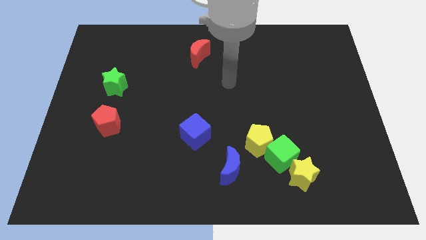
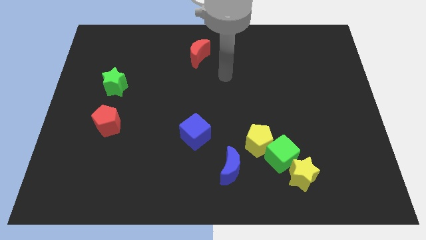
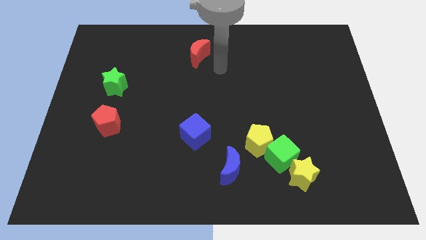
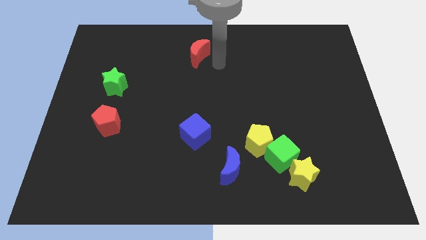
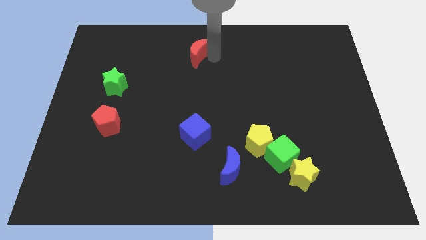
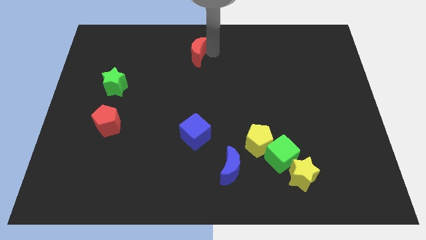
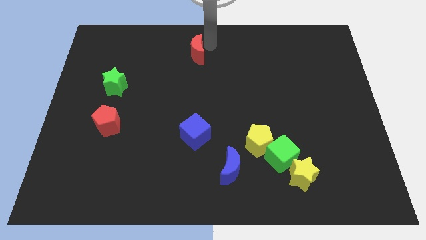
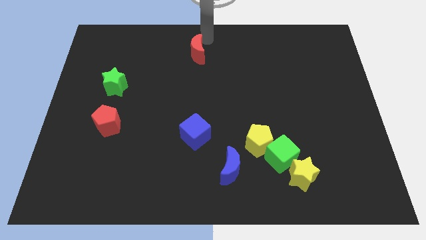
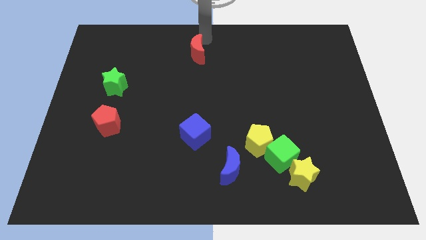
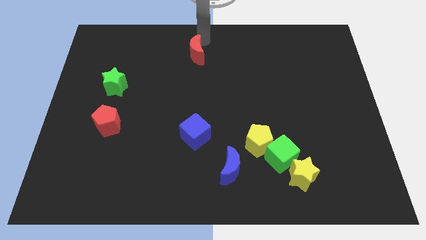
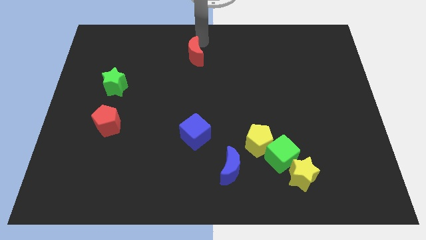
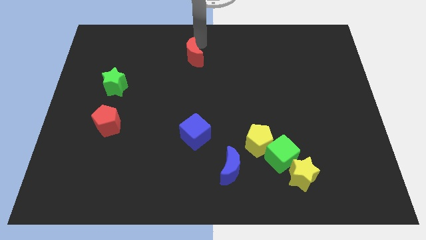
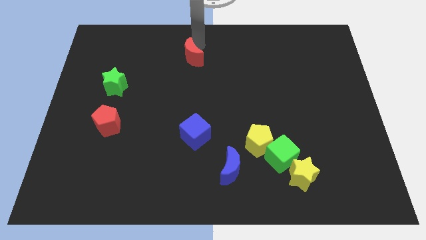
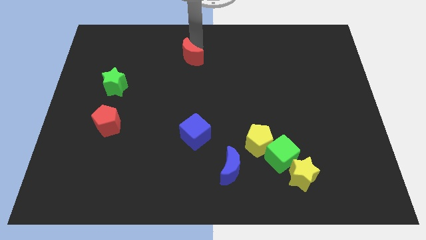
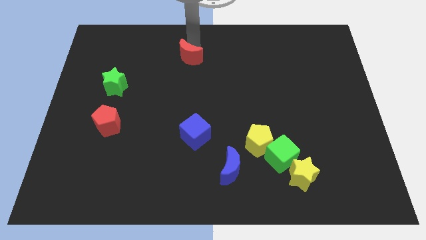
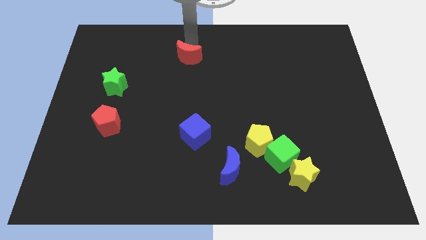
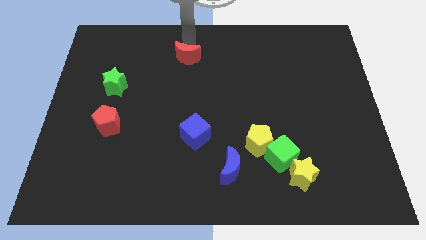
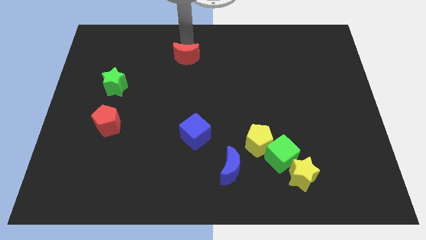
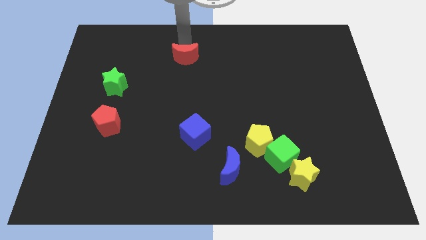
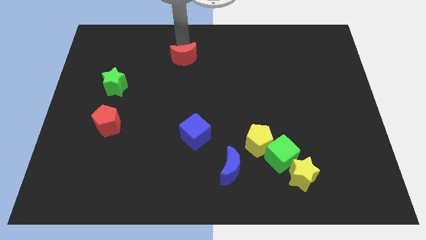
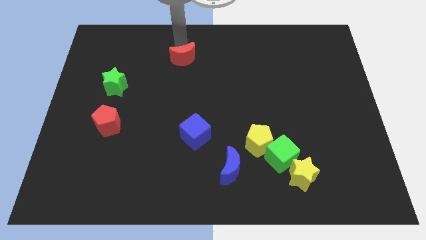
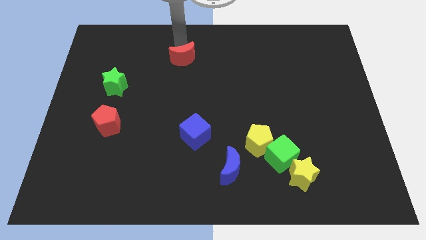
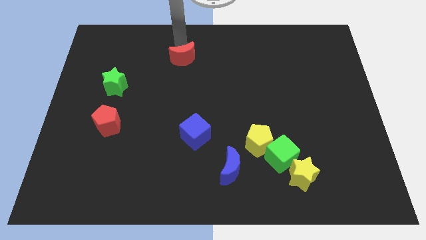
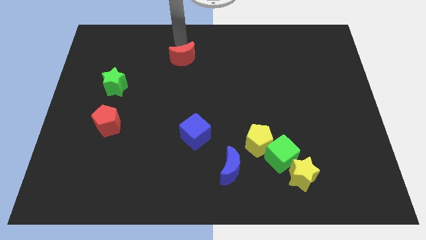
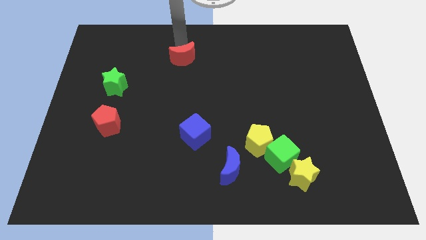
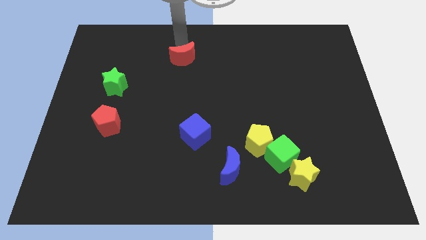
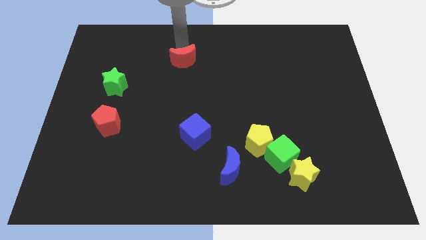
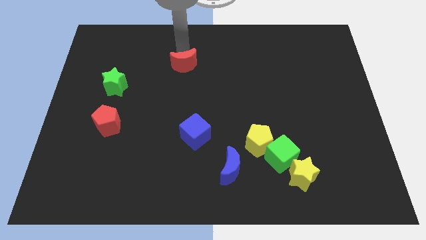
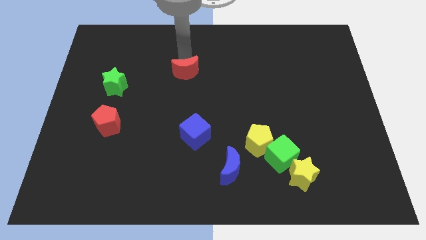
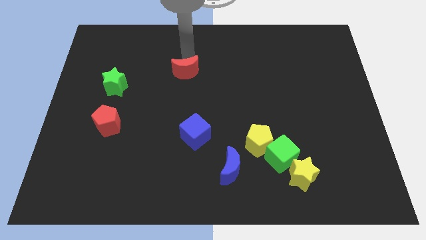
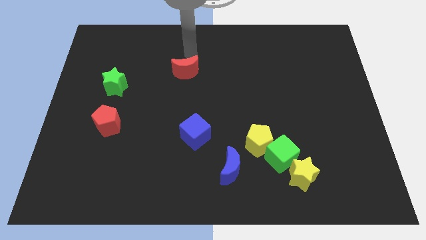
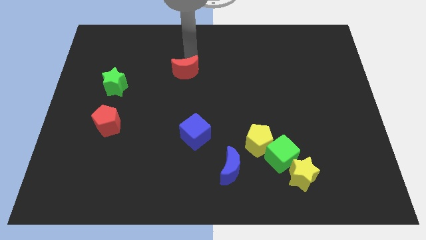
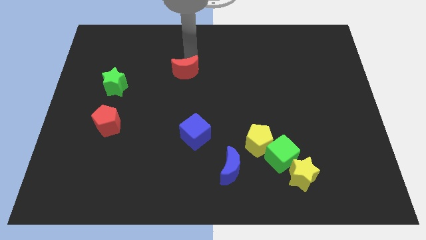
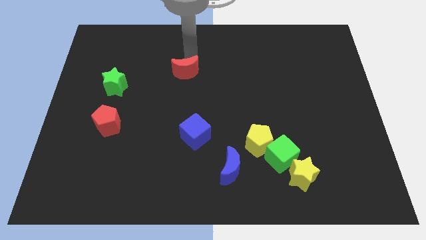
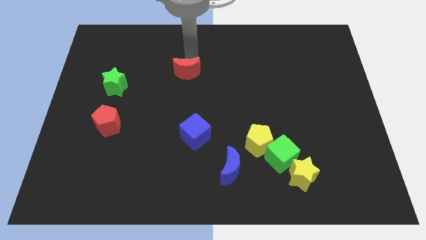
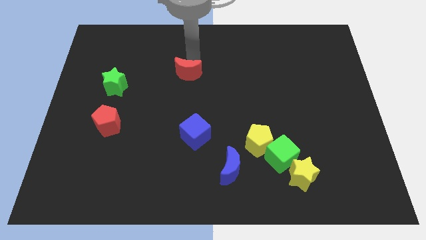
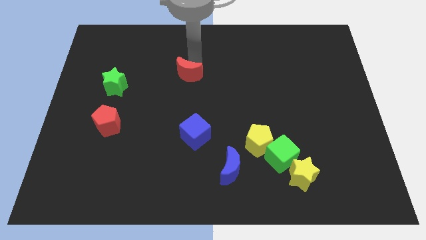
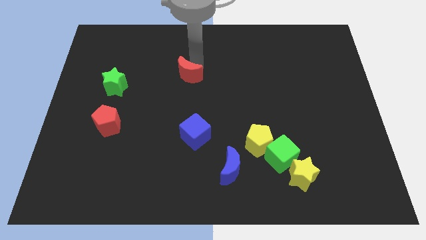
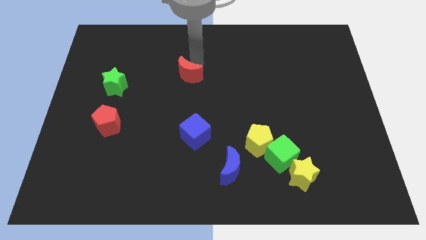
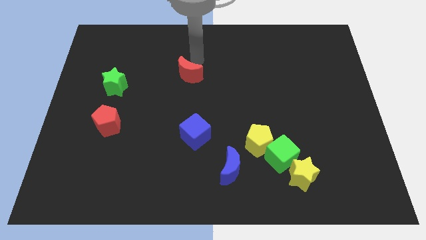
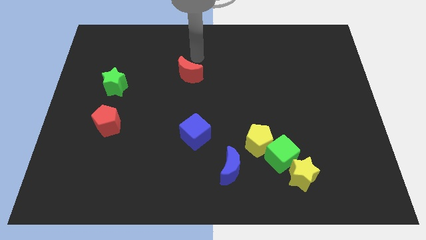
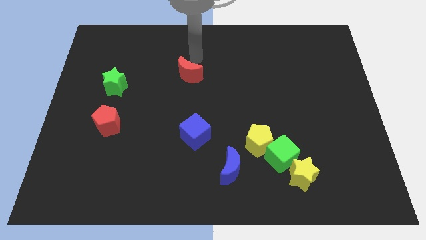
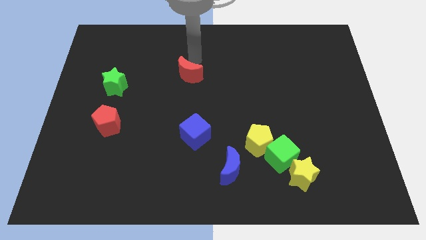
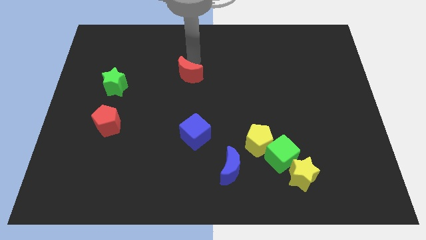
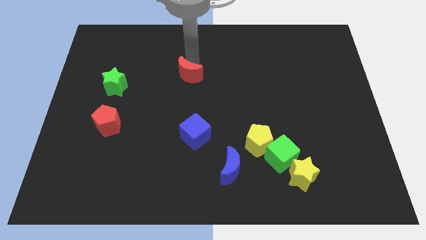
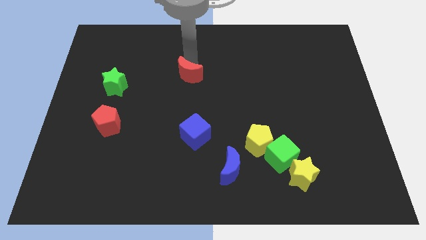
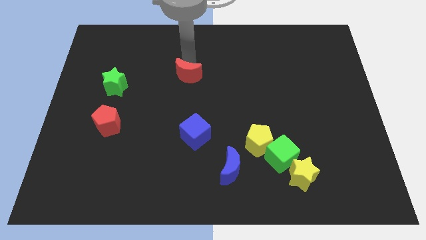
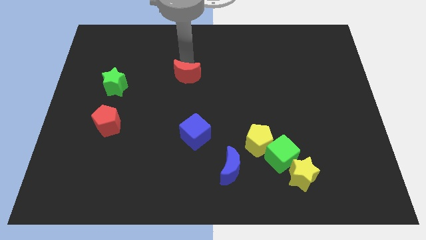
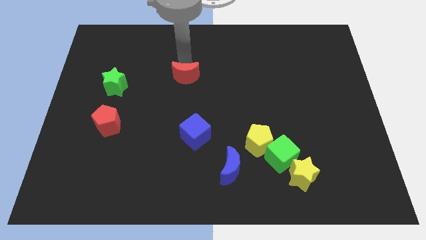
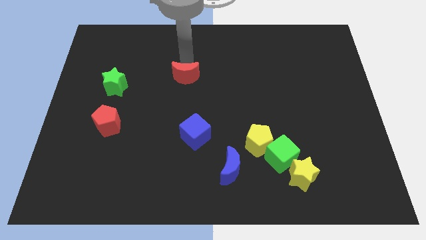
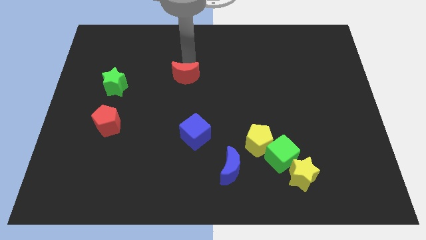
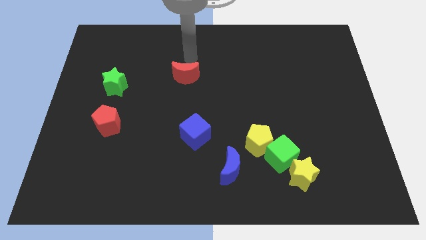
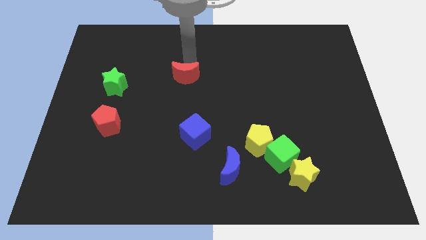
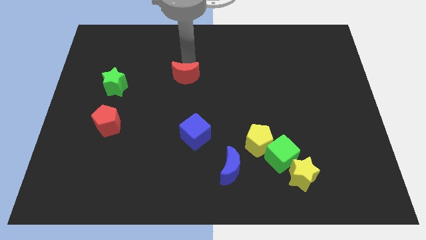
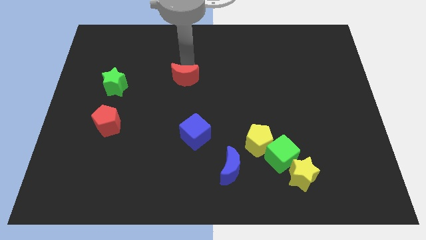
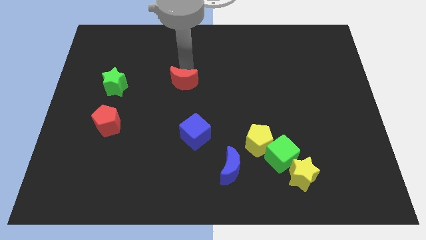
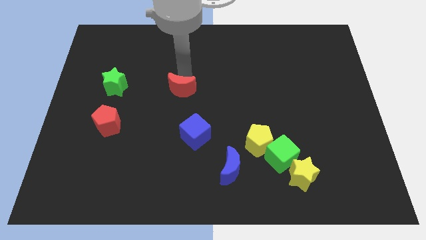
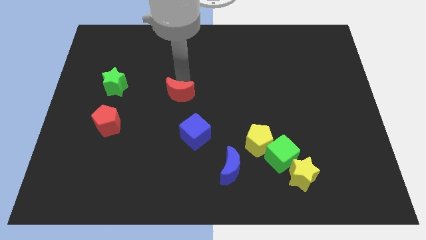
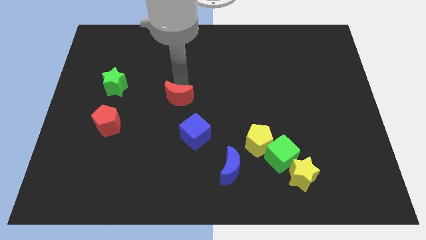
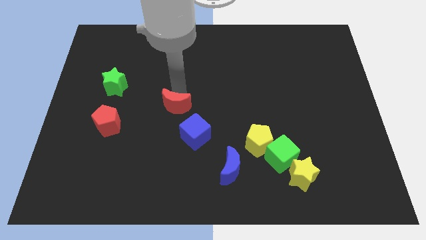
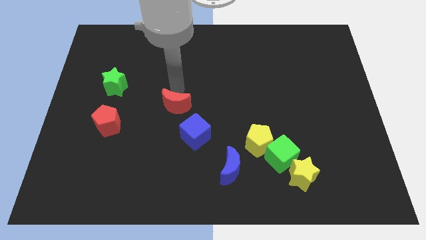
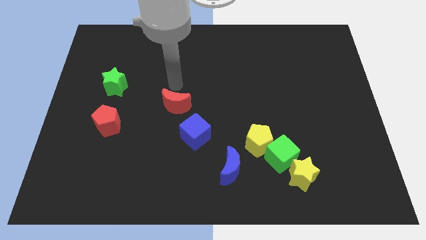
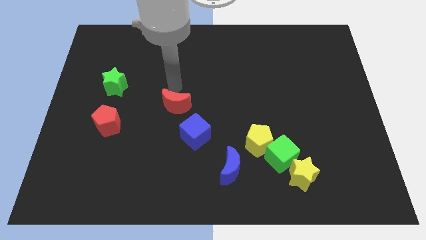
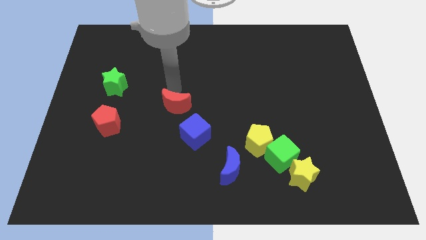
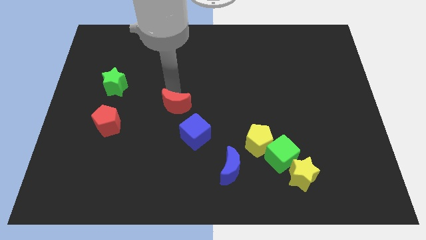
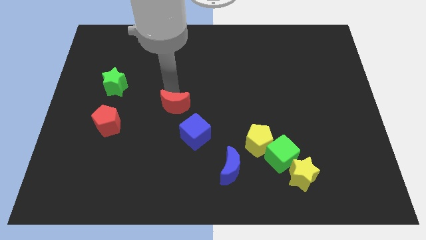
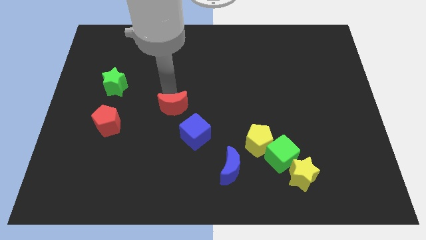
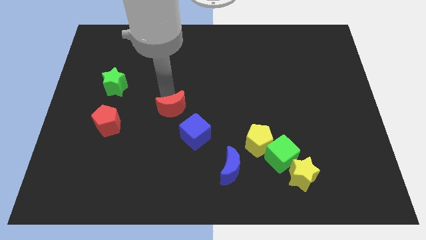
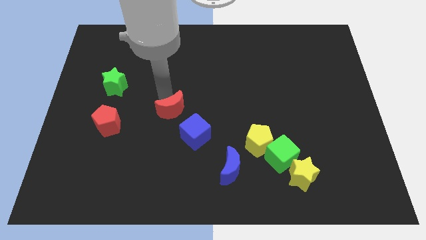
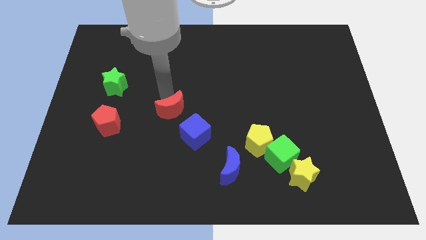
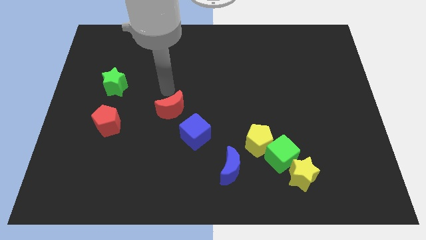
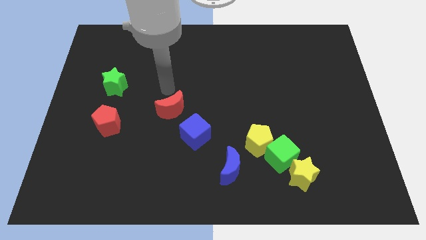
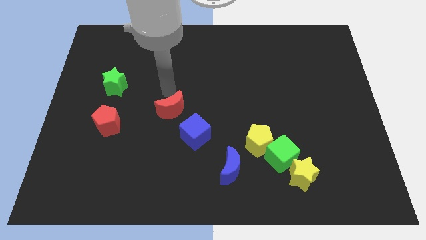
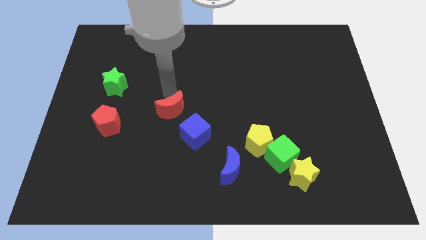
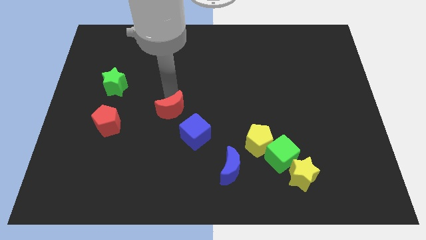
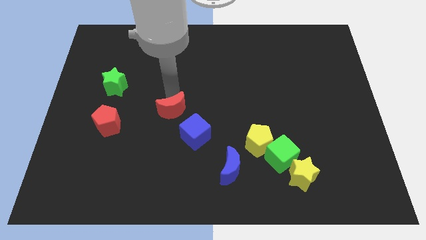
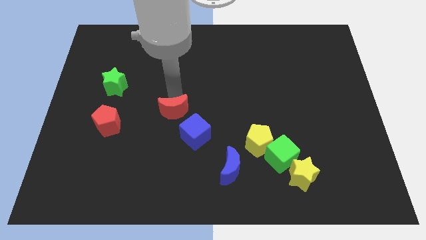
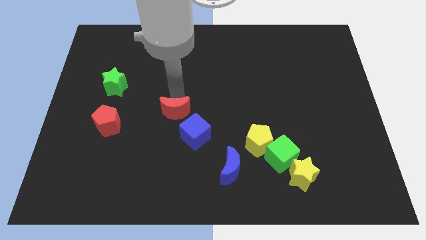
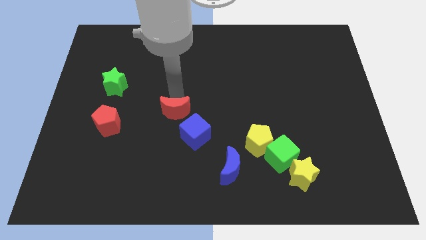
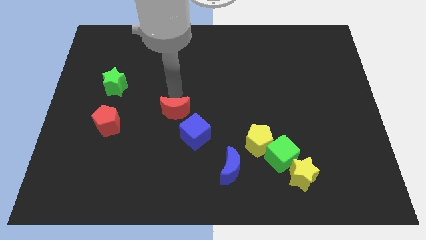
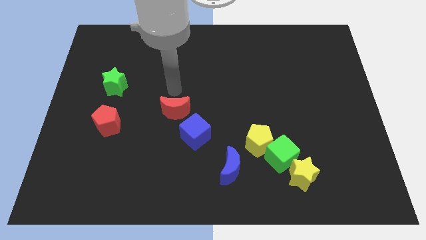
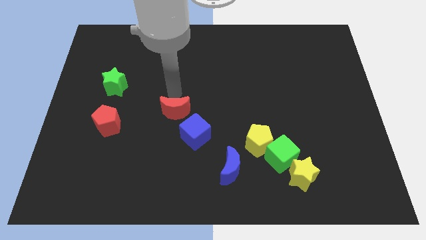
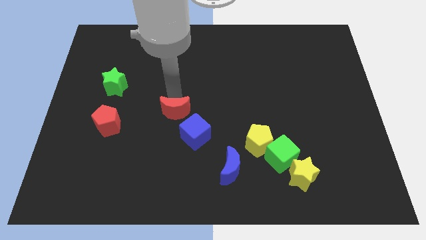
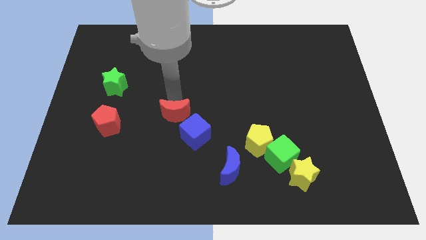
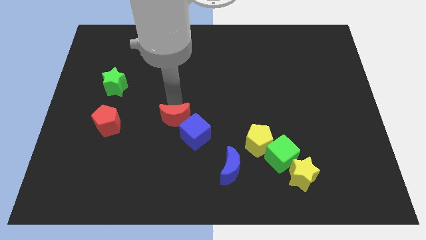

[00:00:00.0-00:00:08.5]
push the red moon down
